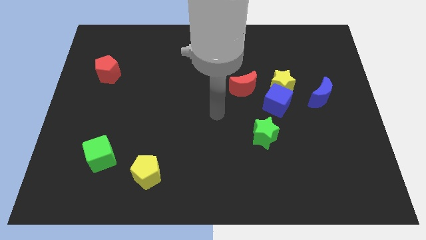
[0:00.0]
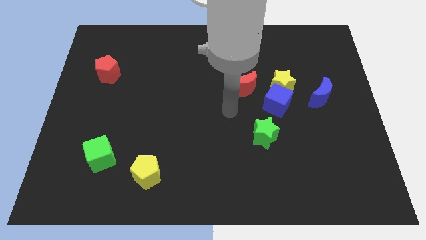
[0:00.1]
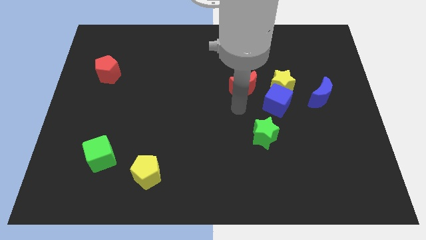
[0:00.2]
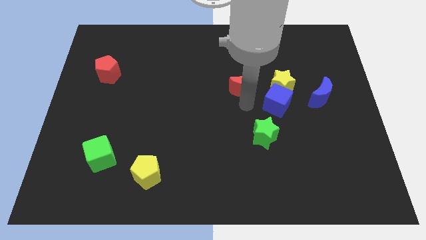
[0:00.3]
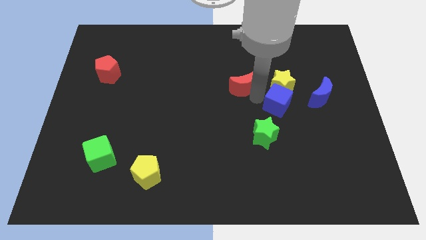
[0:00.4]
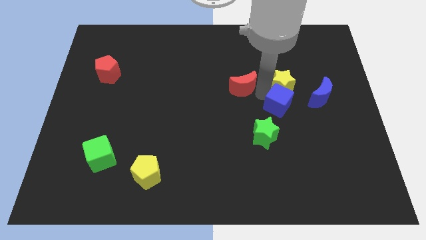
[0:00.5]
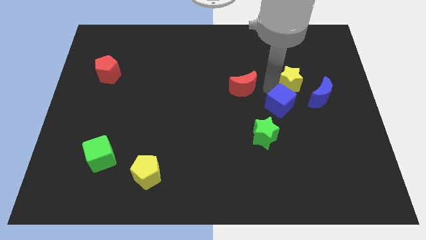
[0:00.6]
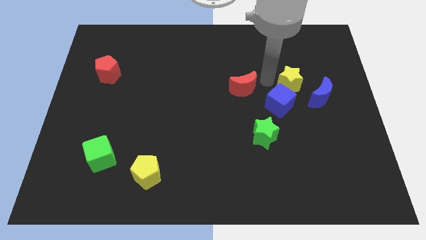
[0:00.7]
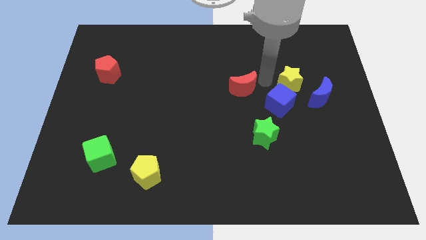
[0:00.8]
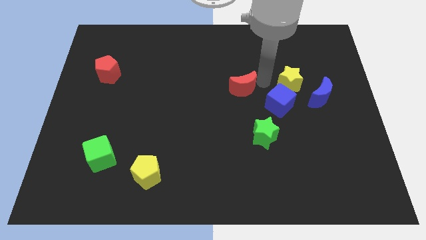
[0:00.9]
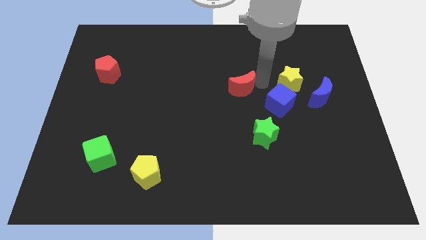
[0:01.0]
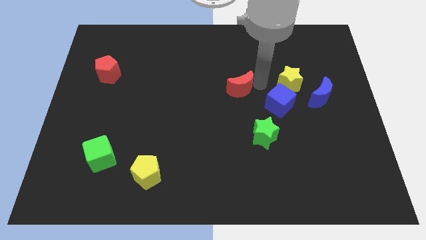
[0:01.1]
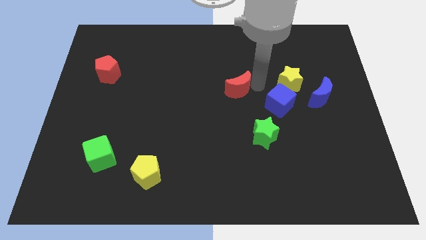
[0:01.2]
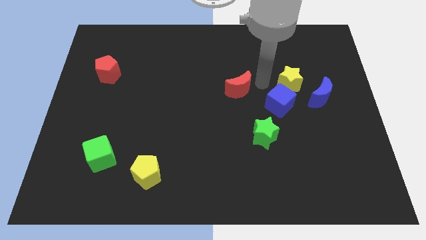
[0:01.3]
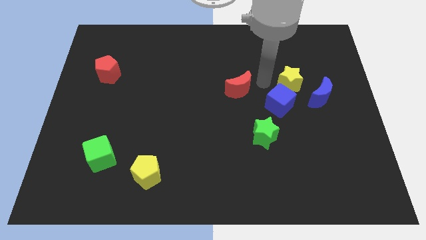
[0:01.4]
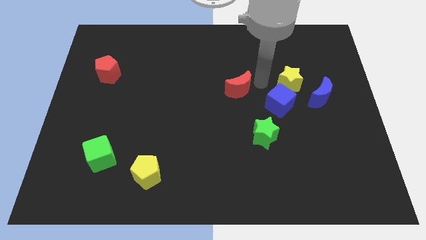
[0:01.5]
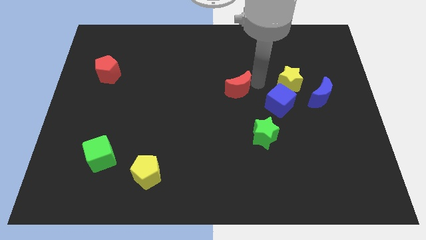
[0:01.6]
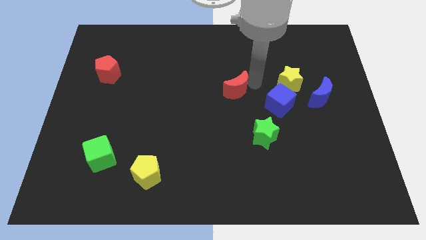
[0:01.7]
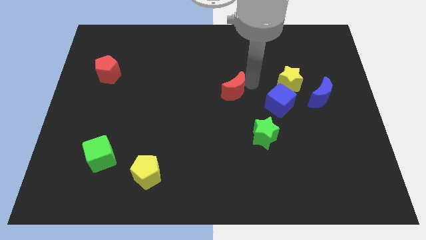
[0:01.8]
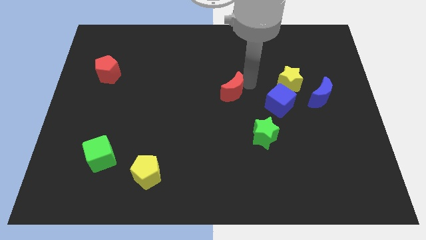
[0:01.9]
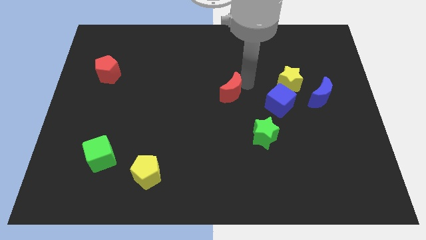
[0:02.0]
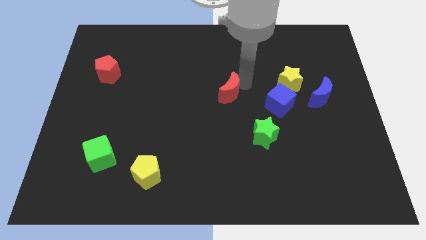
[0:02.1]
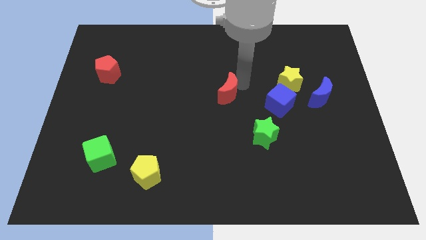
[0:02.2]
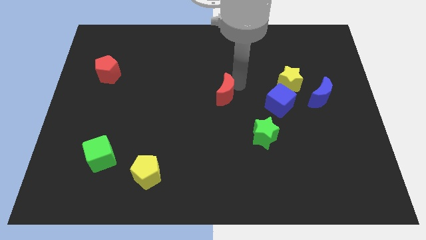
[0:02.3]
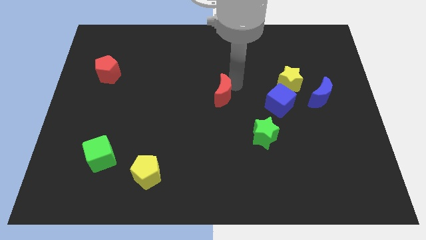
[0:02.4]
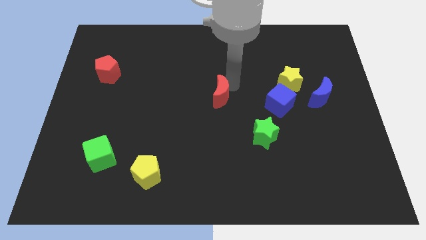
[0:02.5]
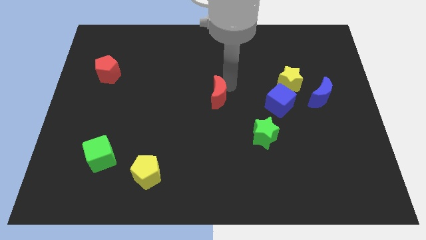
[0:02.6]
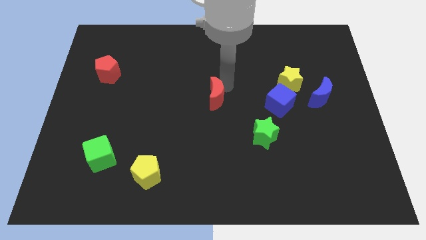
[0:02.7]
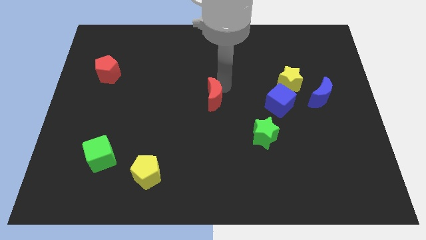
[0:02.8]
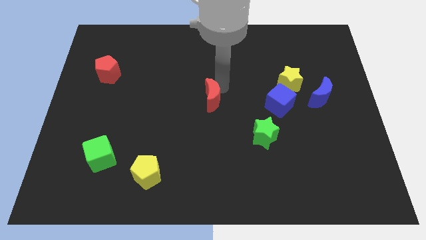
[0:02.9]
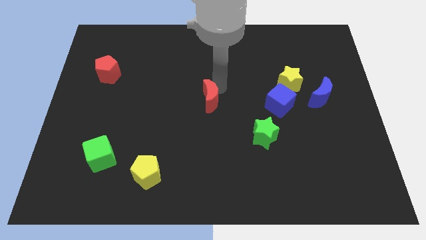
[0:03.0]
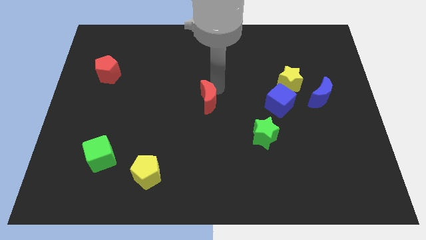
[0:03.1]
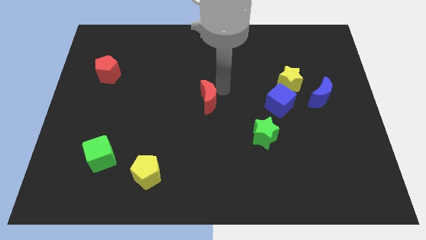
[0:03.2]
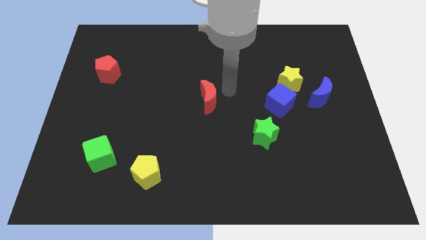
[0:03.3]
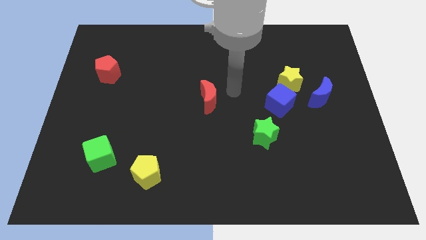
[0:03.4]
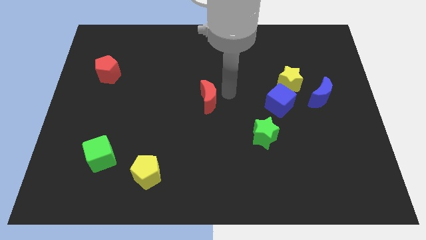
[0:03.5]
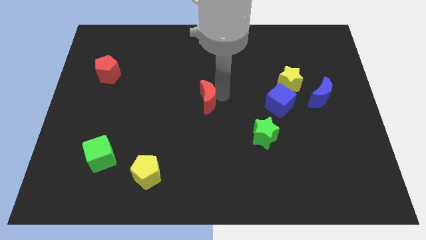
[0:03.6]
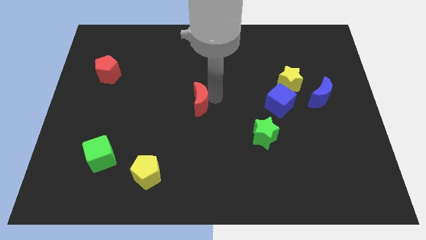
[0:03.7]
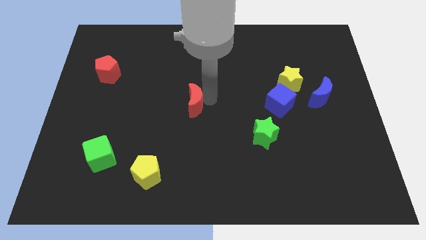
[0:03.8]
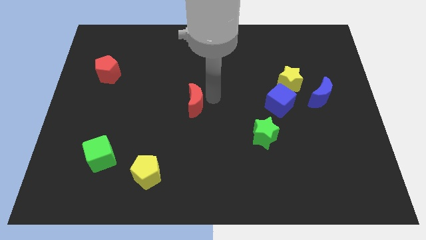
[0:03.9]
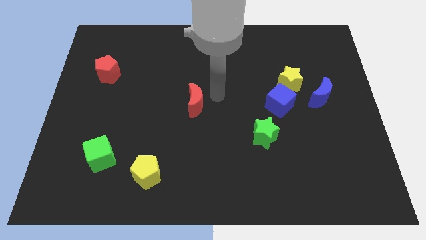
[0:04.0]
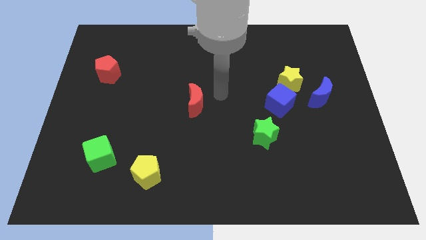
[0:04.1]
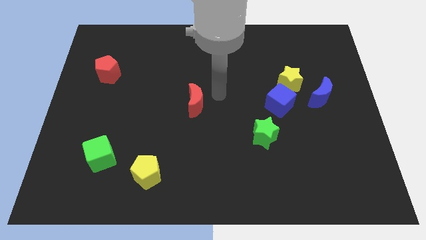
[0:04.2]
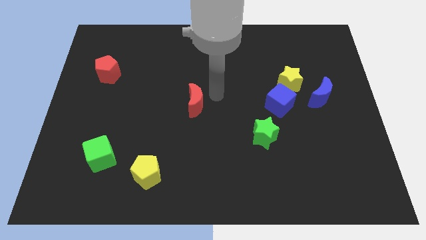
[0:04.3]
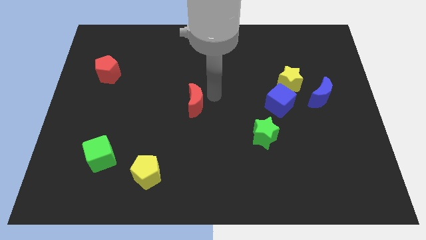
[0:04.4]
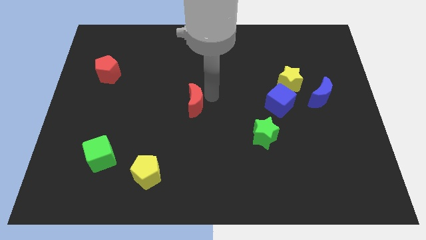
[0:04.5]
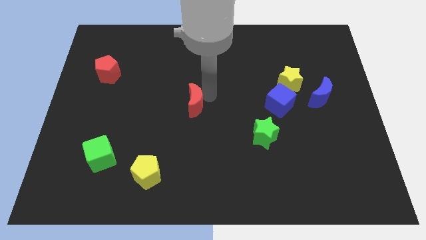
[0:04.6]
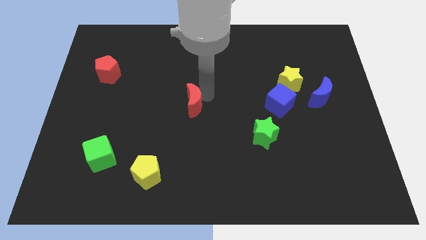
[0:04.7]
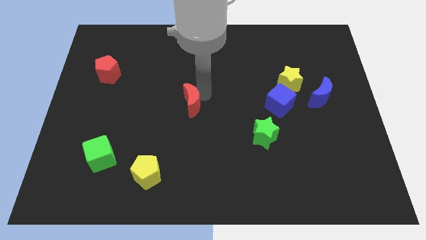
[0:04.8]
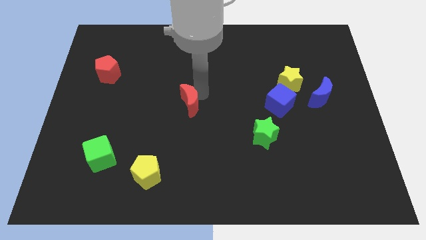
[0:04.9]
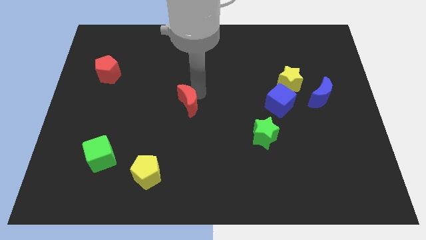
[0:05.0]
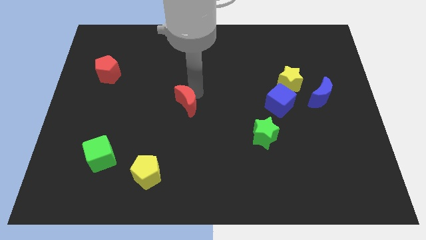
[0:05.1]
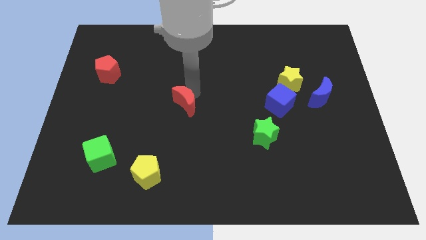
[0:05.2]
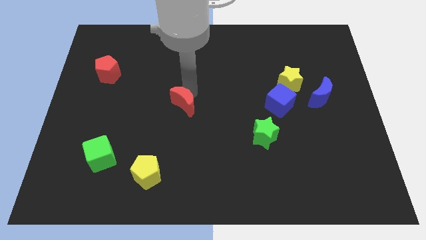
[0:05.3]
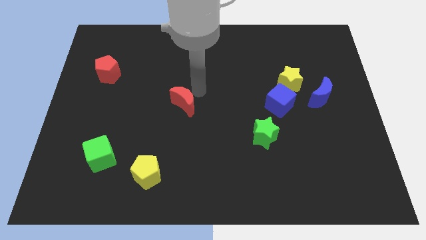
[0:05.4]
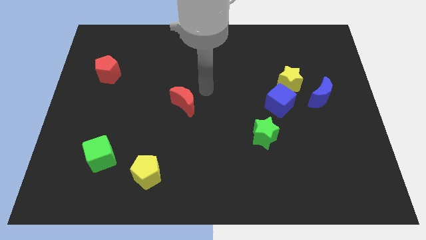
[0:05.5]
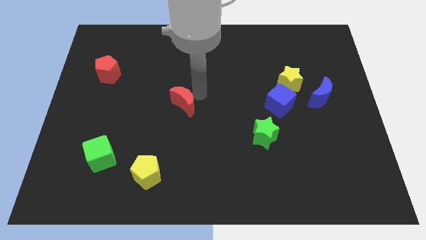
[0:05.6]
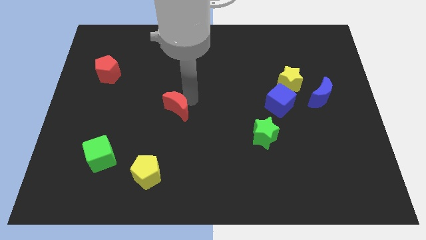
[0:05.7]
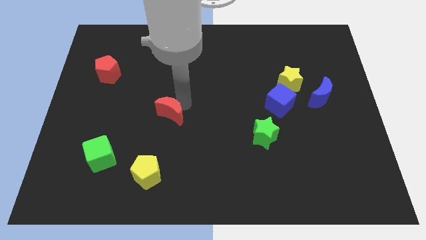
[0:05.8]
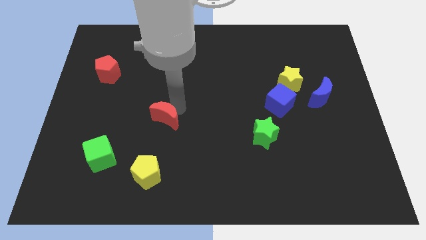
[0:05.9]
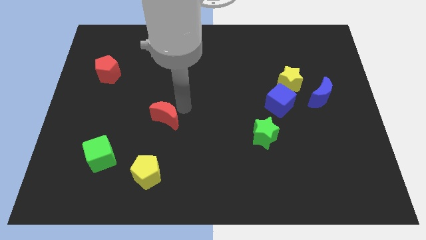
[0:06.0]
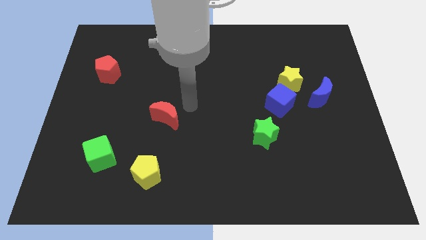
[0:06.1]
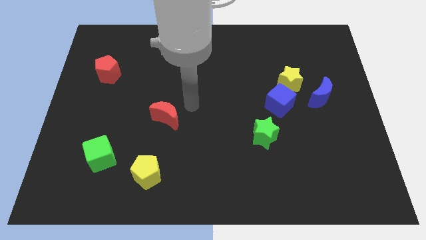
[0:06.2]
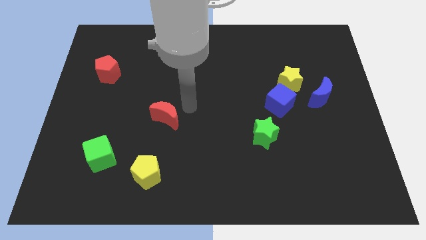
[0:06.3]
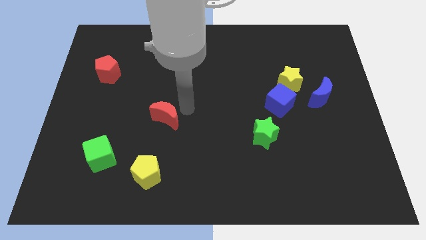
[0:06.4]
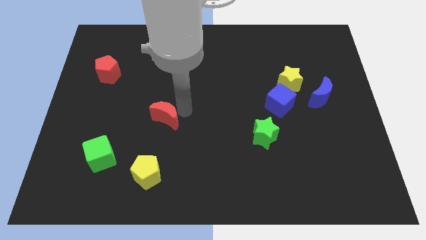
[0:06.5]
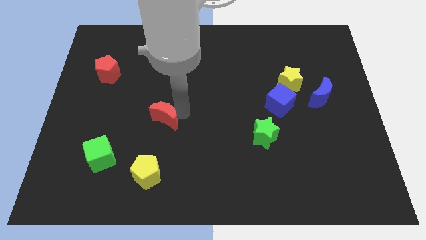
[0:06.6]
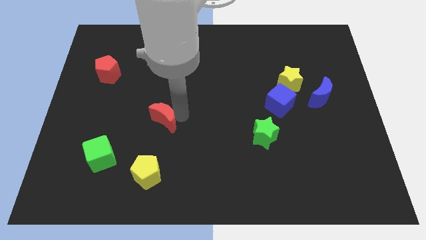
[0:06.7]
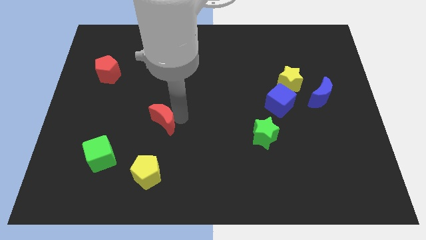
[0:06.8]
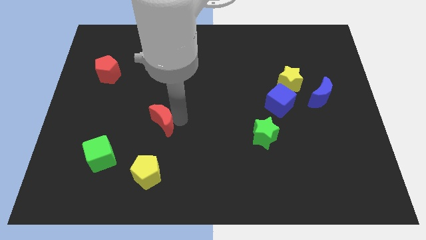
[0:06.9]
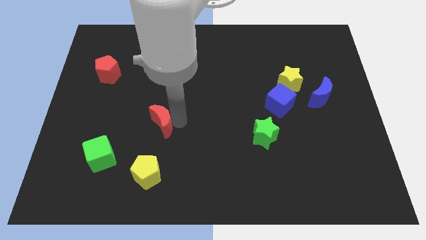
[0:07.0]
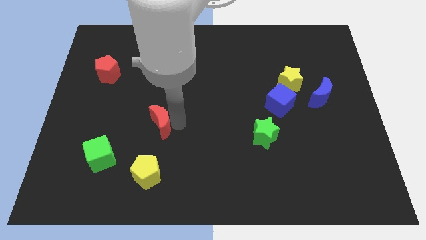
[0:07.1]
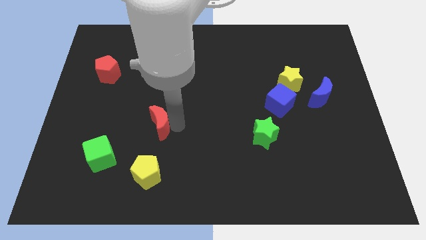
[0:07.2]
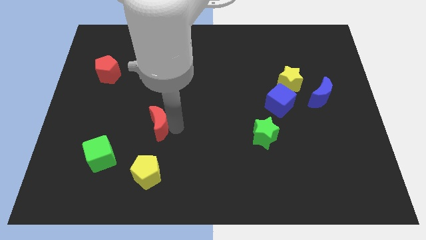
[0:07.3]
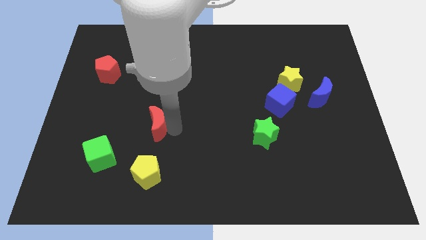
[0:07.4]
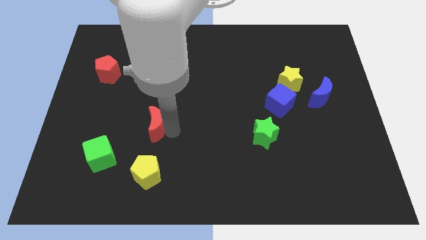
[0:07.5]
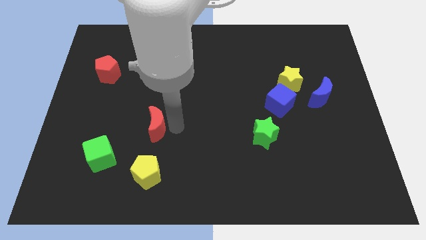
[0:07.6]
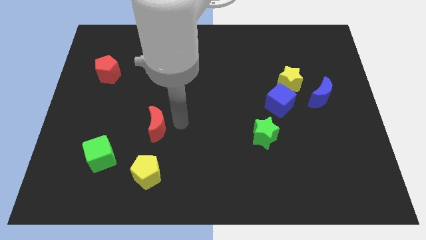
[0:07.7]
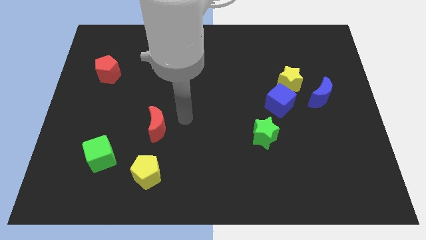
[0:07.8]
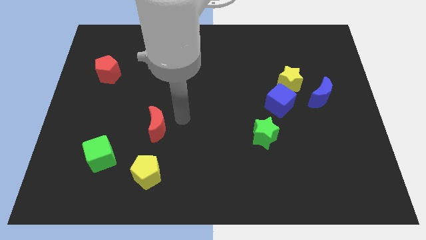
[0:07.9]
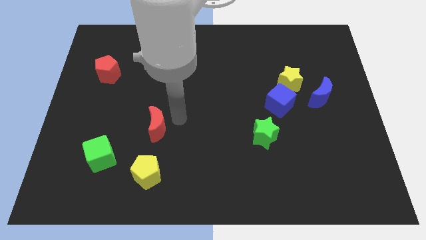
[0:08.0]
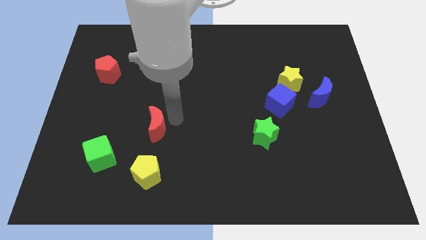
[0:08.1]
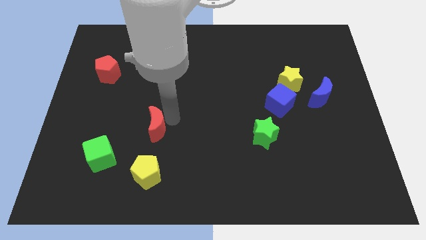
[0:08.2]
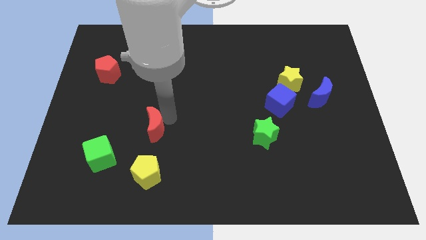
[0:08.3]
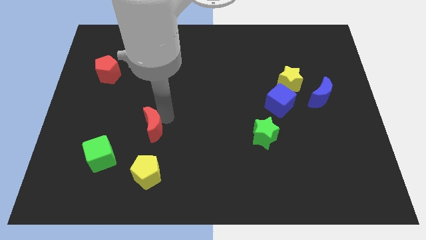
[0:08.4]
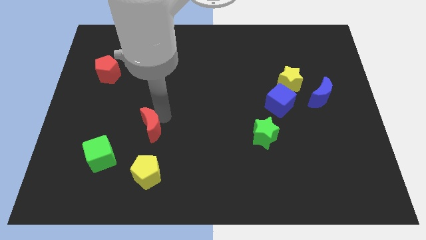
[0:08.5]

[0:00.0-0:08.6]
slide the red moon to the top right side of the green cube
